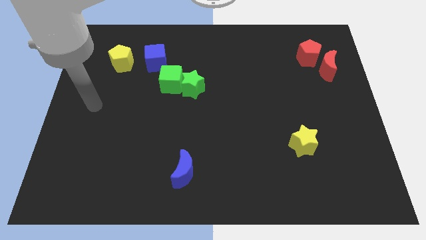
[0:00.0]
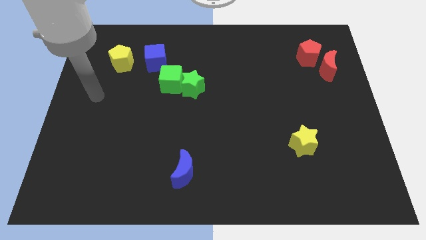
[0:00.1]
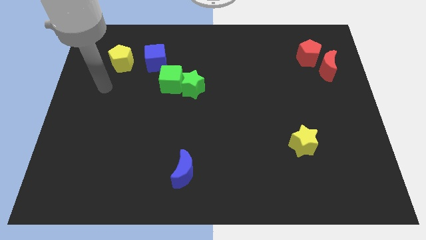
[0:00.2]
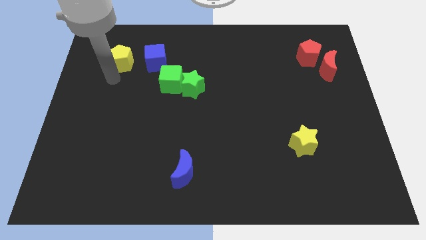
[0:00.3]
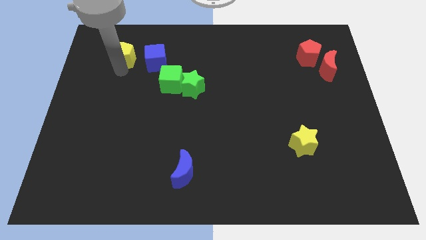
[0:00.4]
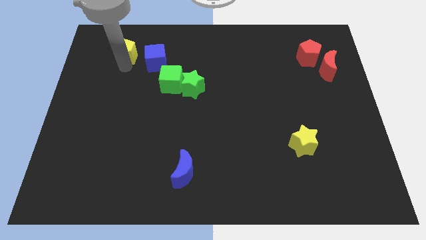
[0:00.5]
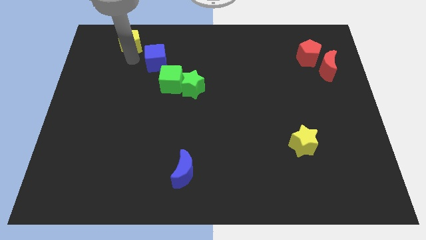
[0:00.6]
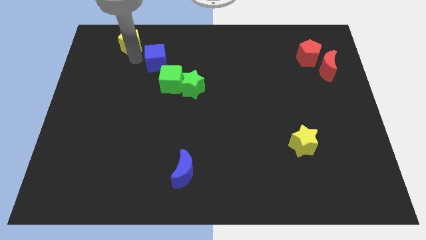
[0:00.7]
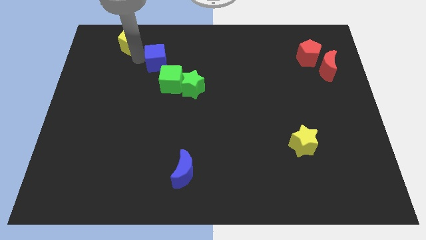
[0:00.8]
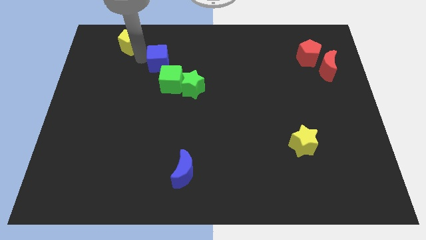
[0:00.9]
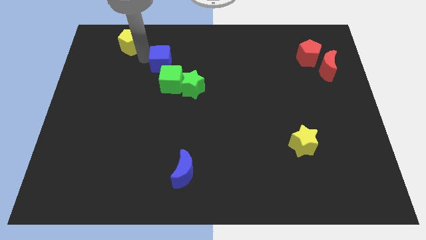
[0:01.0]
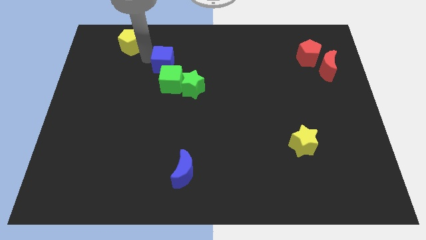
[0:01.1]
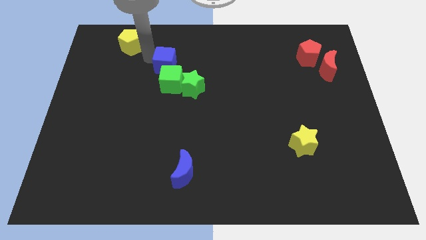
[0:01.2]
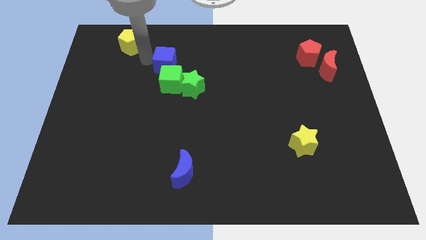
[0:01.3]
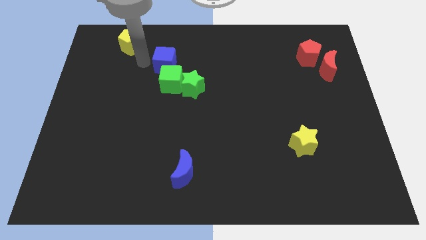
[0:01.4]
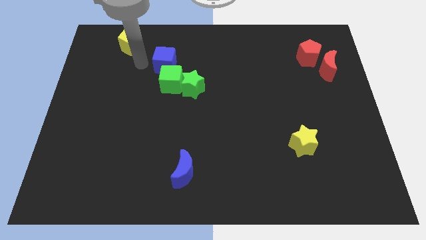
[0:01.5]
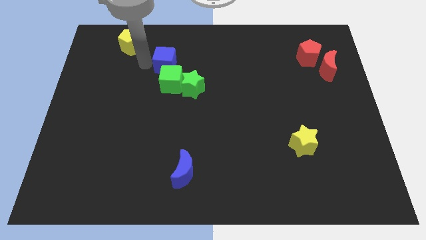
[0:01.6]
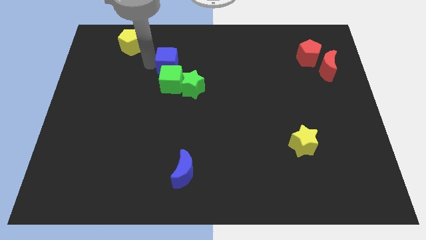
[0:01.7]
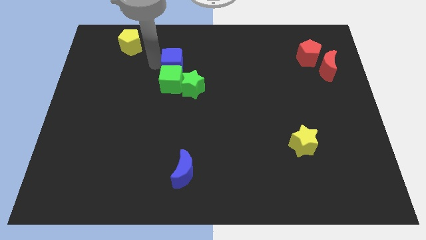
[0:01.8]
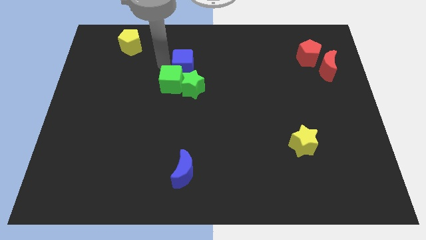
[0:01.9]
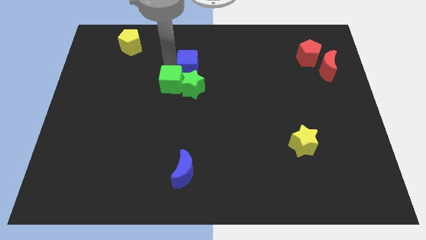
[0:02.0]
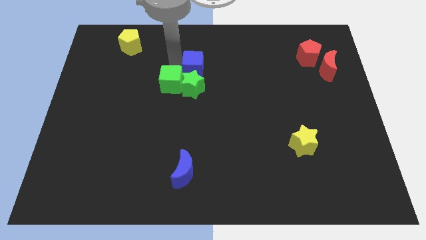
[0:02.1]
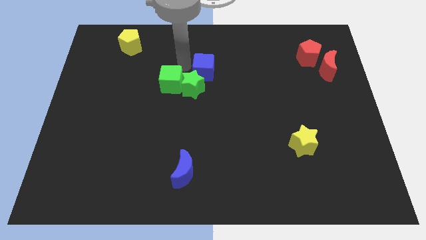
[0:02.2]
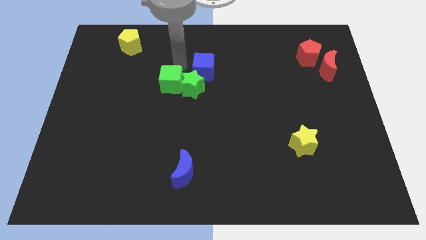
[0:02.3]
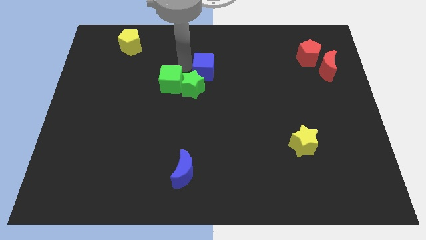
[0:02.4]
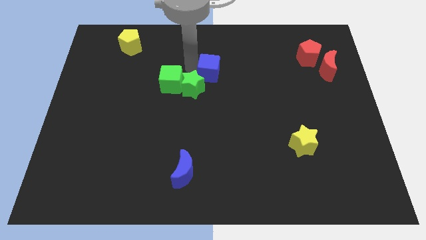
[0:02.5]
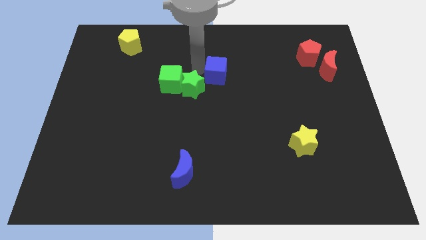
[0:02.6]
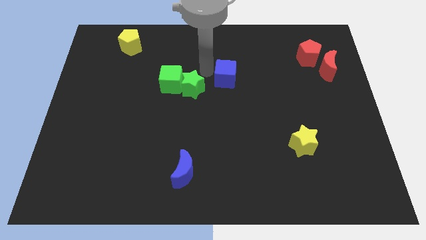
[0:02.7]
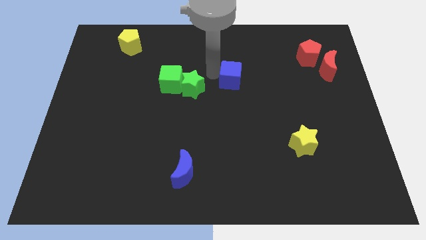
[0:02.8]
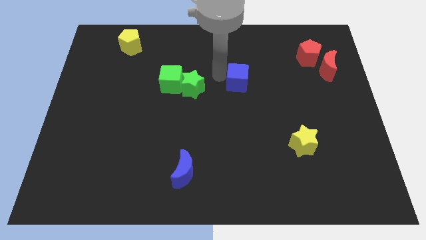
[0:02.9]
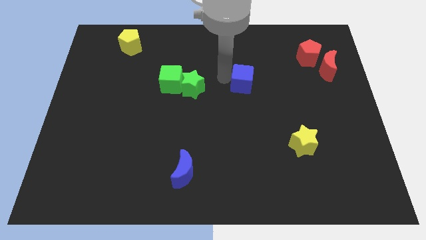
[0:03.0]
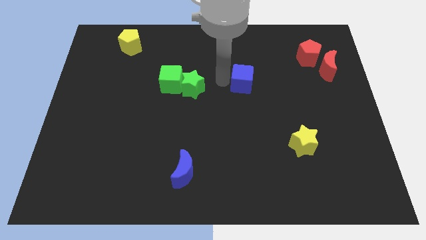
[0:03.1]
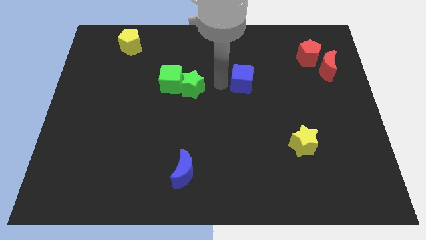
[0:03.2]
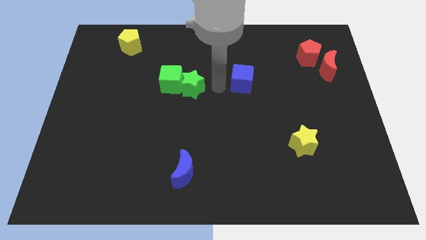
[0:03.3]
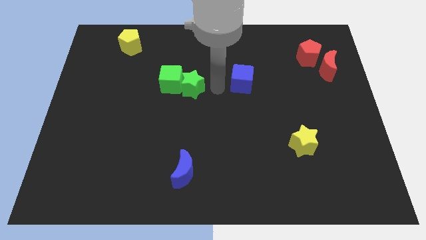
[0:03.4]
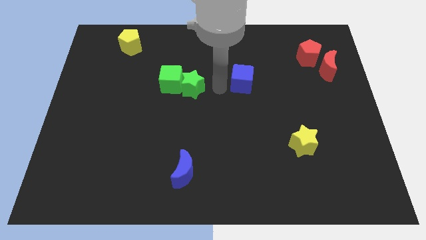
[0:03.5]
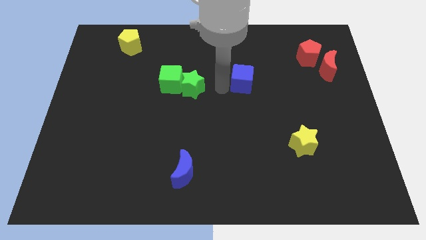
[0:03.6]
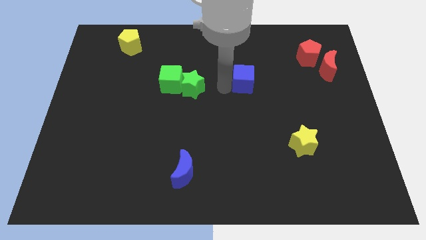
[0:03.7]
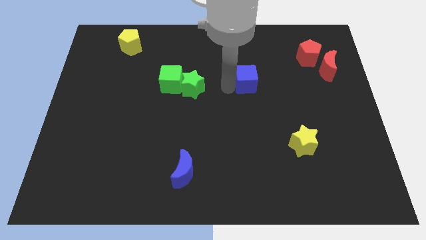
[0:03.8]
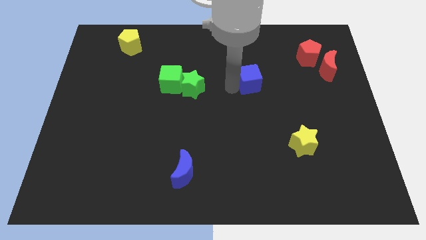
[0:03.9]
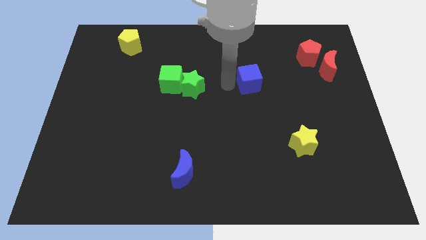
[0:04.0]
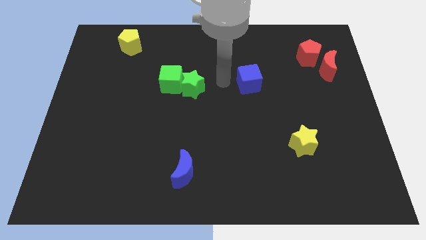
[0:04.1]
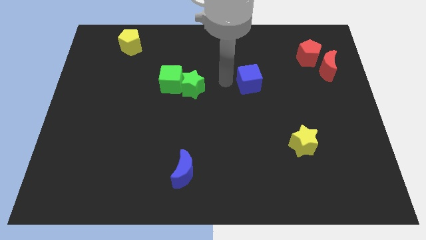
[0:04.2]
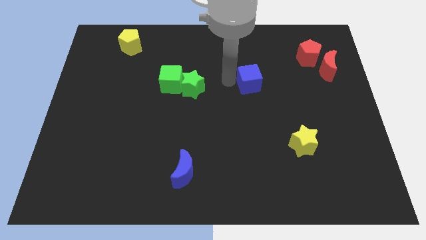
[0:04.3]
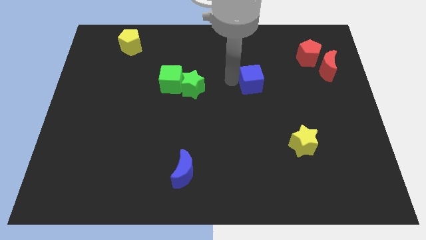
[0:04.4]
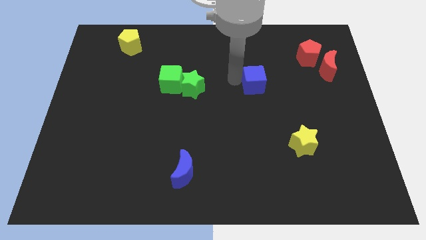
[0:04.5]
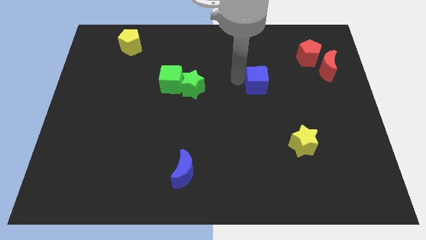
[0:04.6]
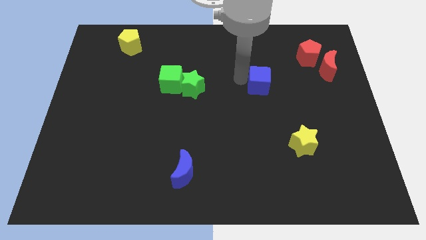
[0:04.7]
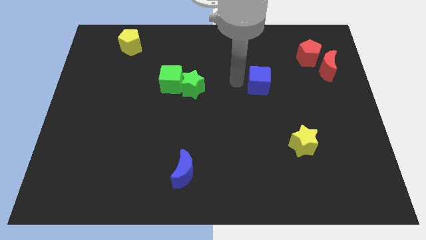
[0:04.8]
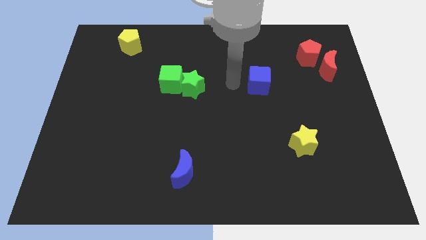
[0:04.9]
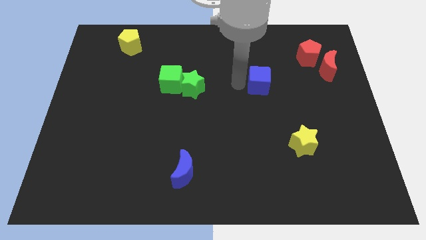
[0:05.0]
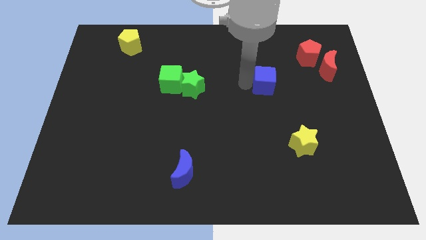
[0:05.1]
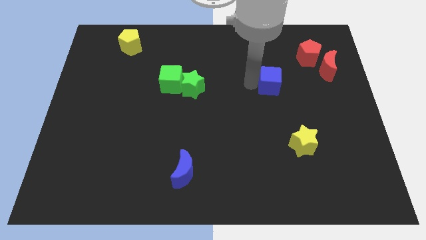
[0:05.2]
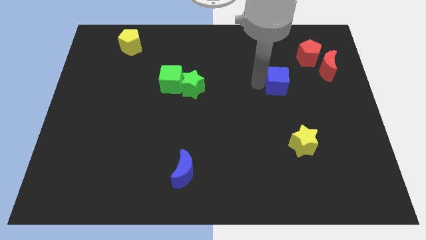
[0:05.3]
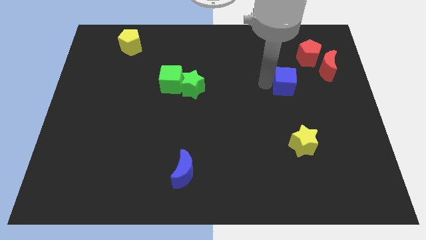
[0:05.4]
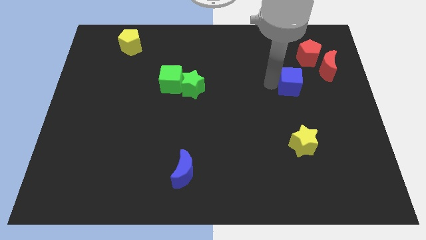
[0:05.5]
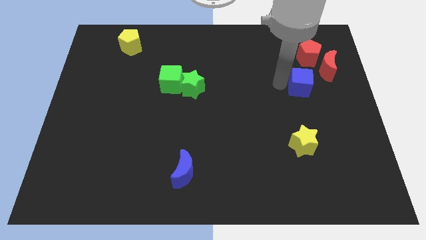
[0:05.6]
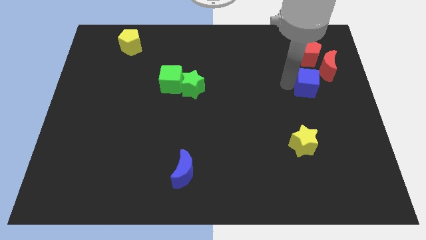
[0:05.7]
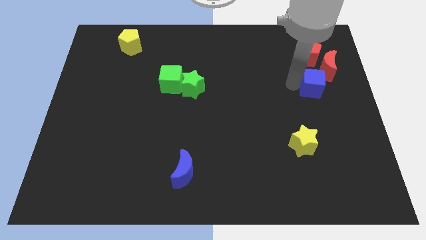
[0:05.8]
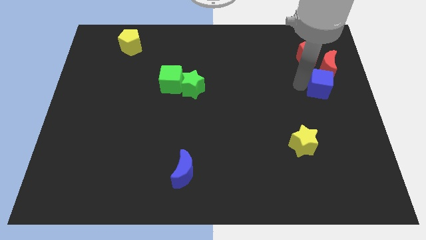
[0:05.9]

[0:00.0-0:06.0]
move the blue cube to the right side of the board

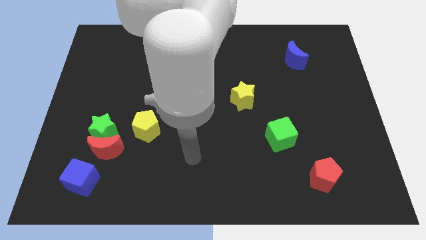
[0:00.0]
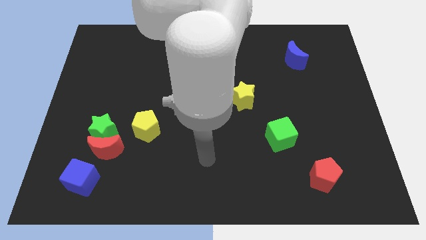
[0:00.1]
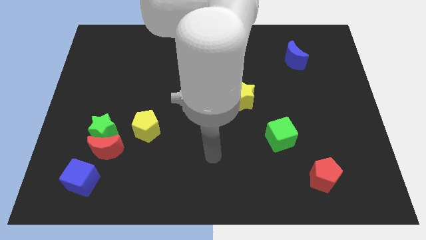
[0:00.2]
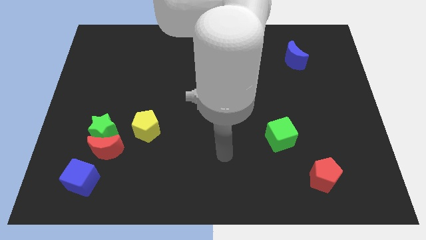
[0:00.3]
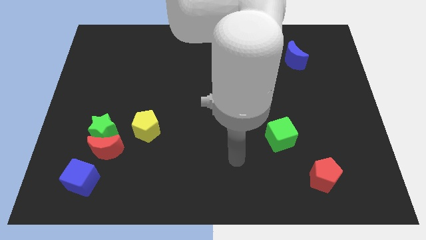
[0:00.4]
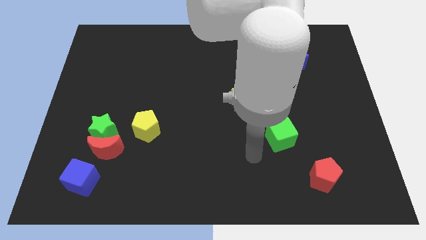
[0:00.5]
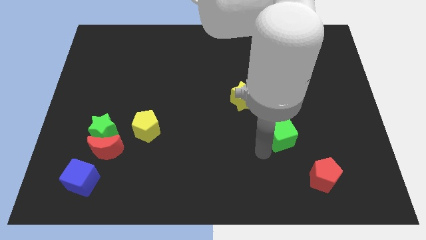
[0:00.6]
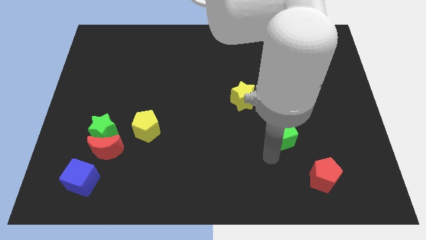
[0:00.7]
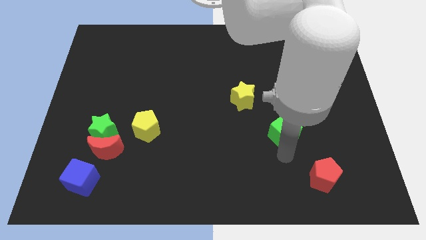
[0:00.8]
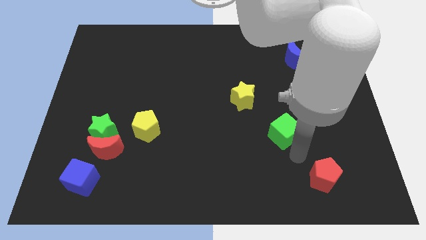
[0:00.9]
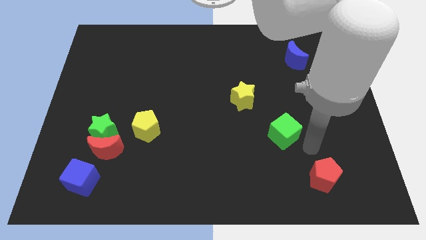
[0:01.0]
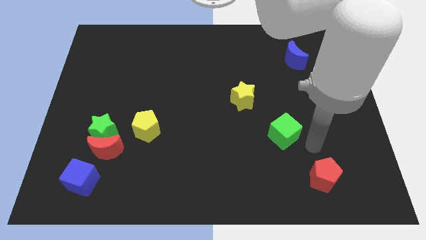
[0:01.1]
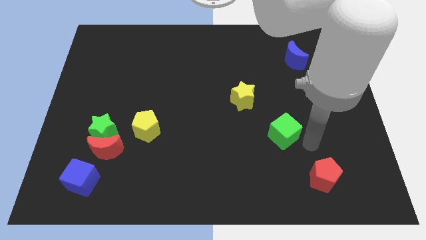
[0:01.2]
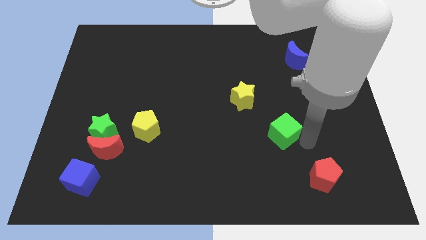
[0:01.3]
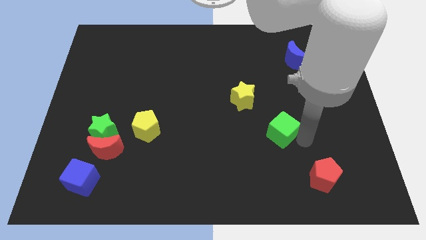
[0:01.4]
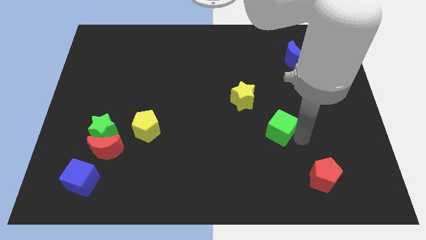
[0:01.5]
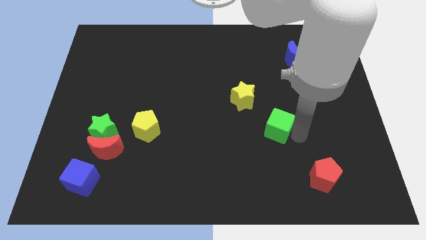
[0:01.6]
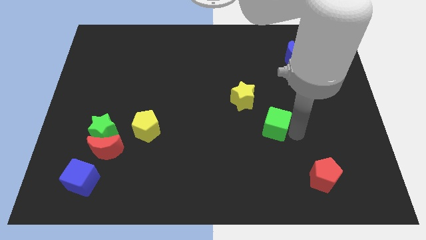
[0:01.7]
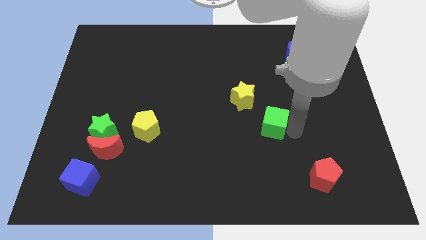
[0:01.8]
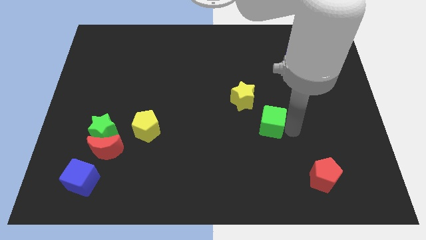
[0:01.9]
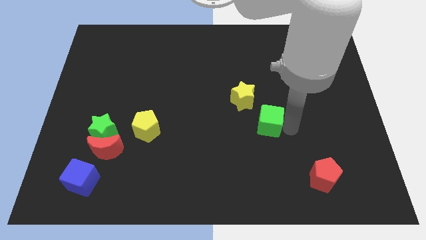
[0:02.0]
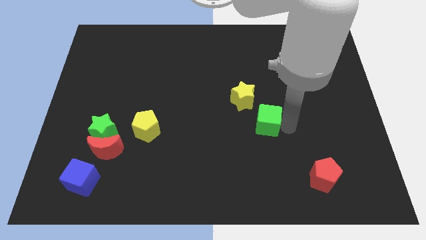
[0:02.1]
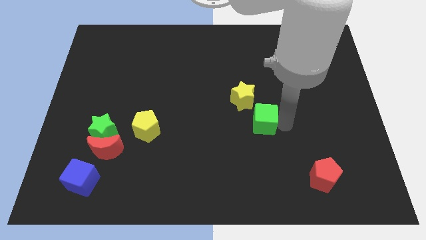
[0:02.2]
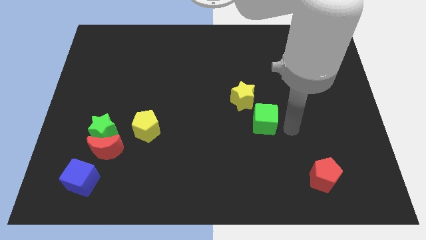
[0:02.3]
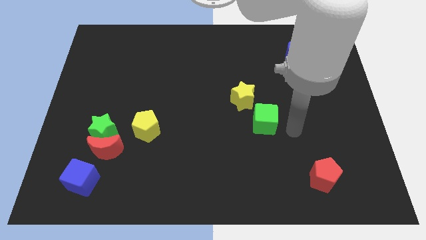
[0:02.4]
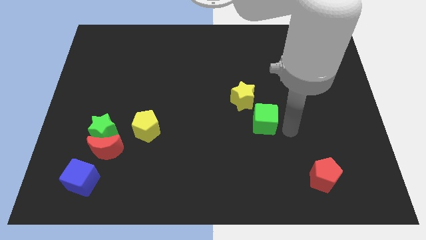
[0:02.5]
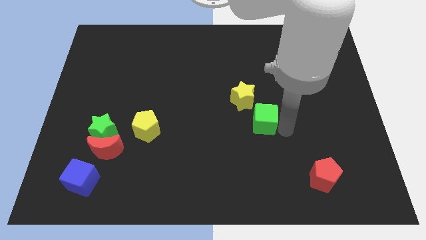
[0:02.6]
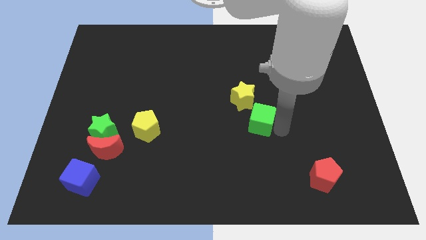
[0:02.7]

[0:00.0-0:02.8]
move the green cube to the middle of the board
